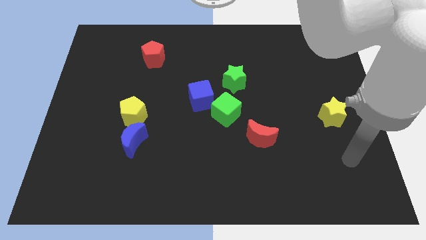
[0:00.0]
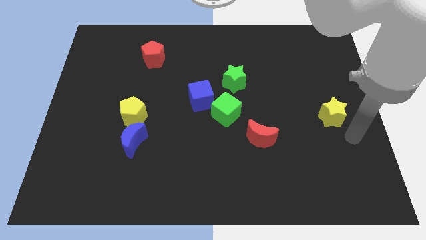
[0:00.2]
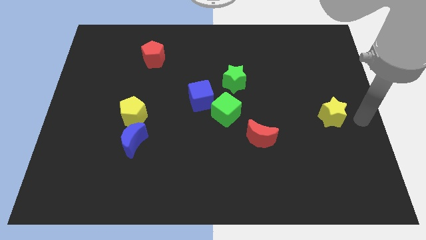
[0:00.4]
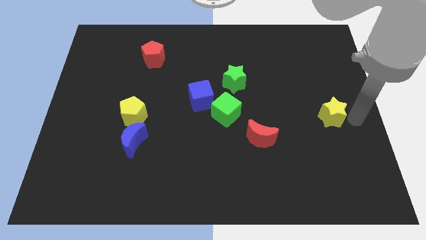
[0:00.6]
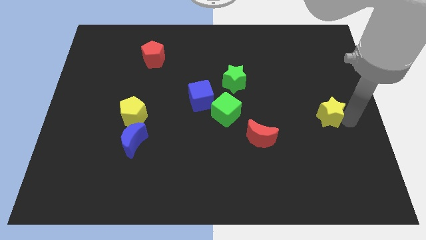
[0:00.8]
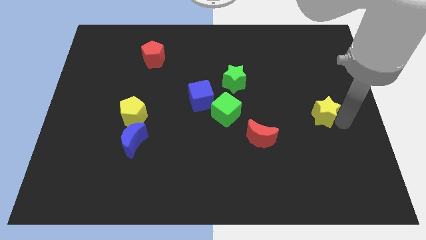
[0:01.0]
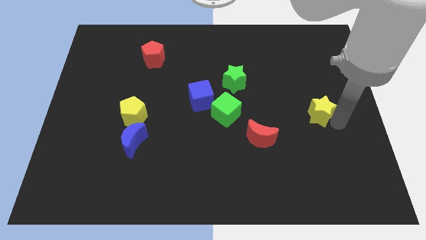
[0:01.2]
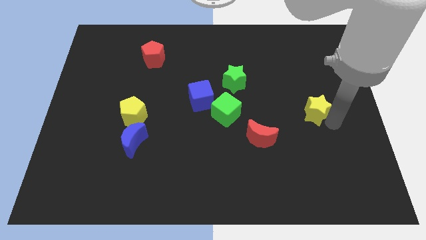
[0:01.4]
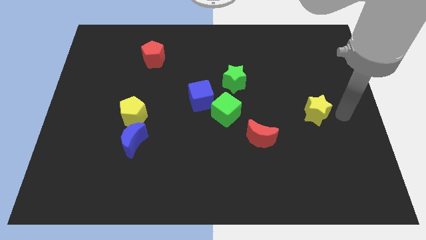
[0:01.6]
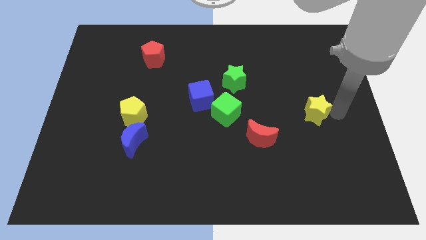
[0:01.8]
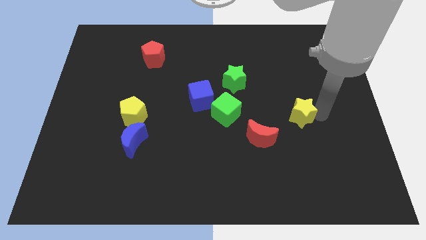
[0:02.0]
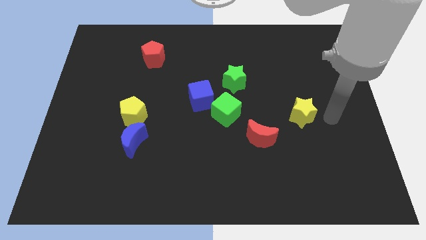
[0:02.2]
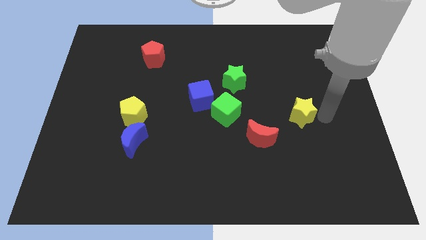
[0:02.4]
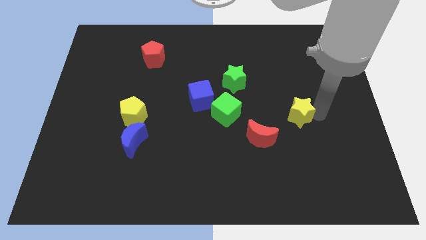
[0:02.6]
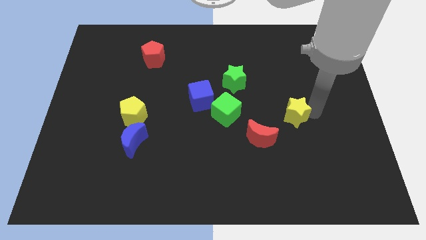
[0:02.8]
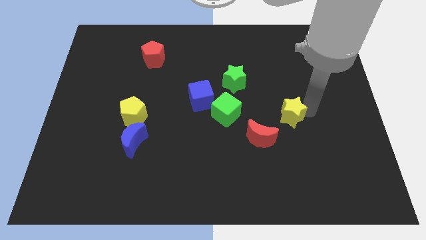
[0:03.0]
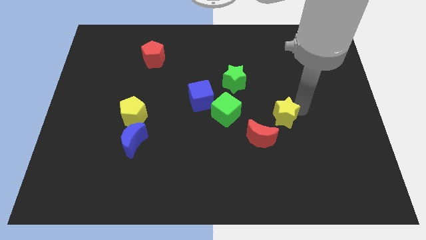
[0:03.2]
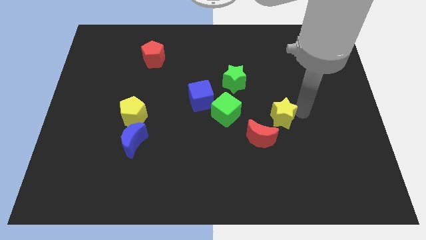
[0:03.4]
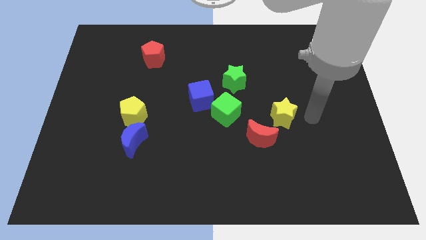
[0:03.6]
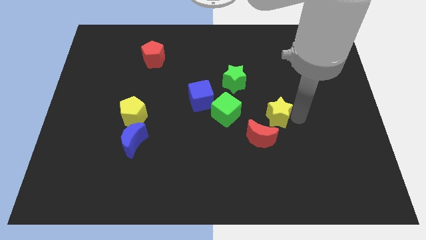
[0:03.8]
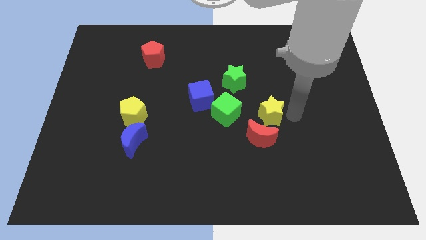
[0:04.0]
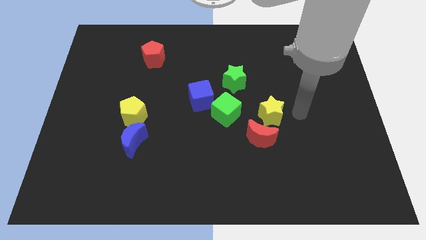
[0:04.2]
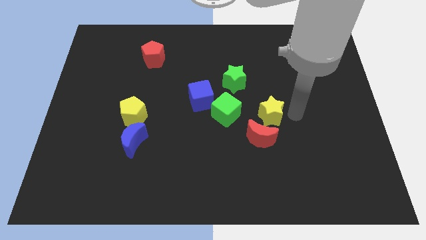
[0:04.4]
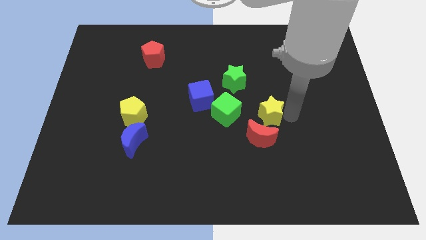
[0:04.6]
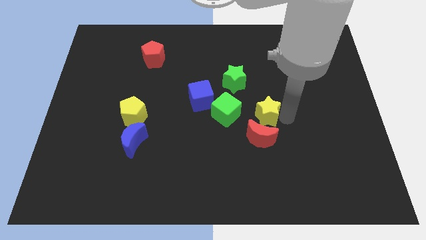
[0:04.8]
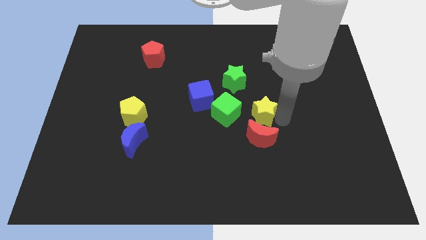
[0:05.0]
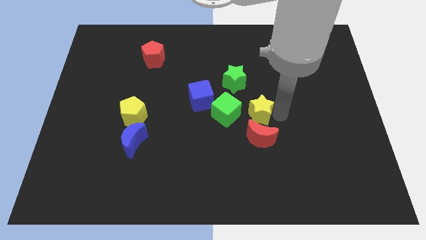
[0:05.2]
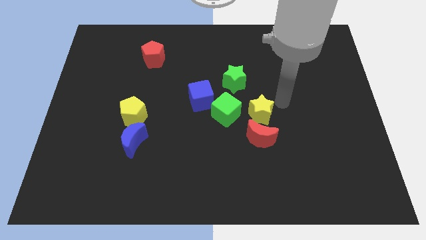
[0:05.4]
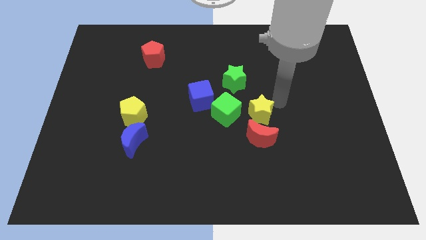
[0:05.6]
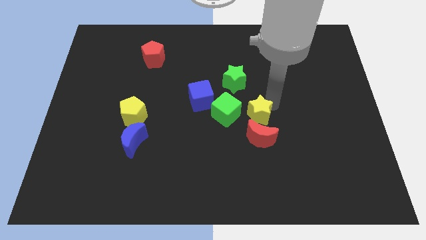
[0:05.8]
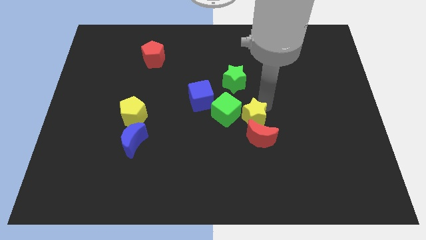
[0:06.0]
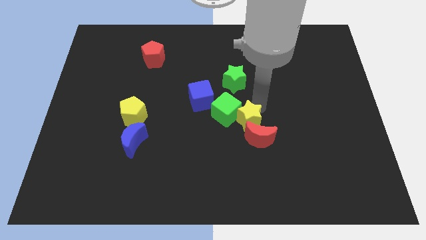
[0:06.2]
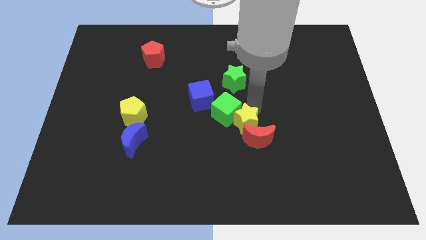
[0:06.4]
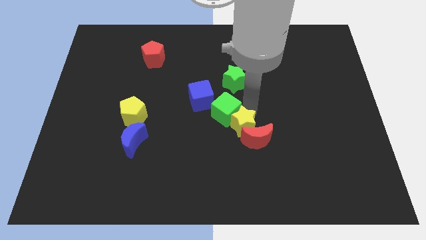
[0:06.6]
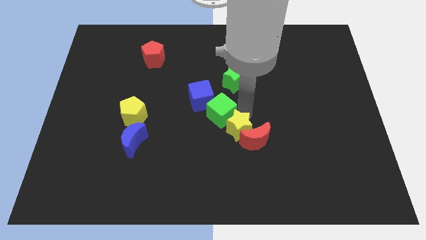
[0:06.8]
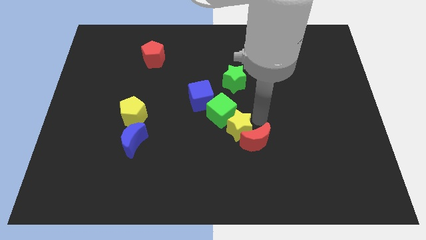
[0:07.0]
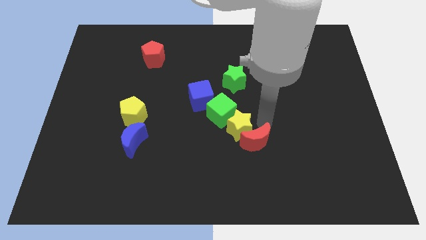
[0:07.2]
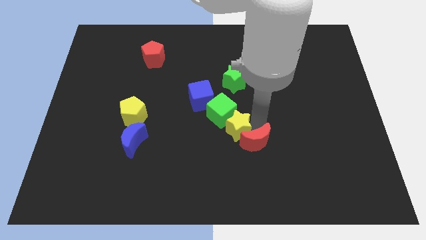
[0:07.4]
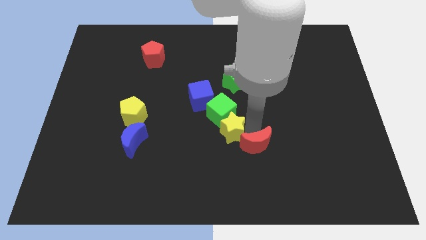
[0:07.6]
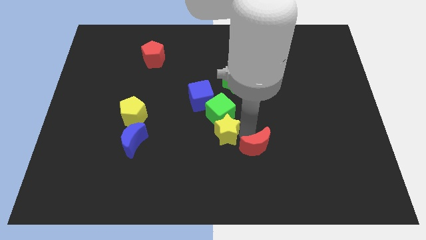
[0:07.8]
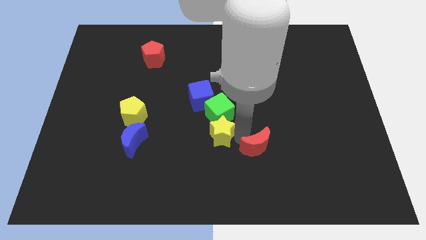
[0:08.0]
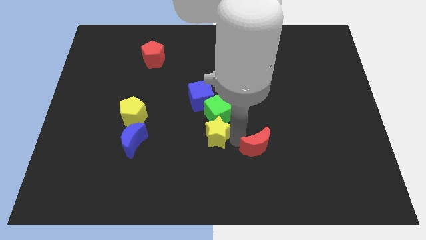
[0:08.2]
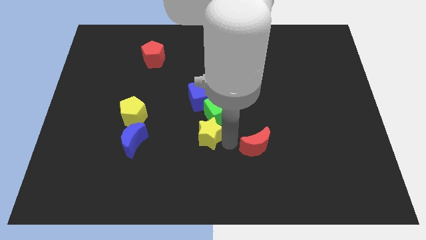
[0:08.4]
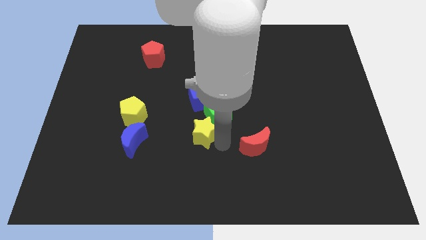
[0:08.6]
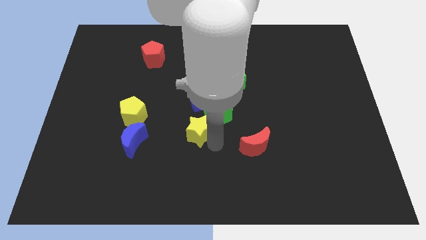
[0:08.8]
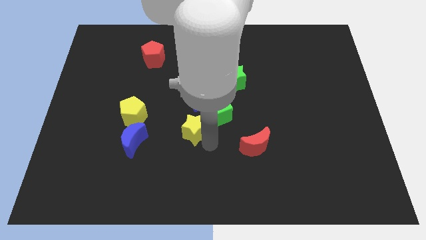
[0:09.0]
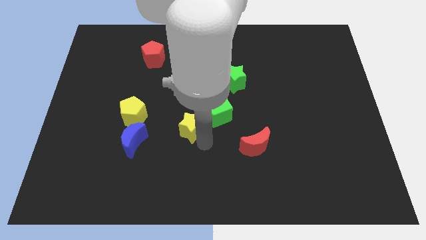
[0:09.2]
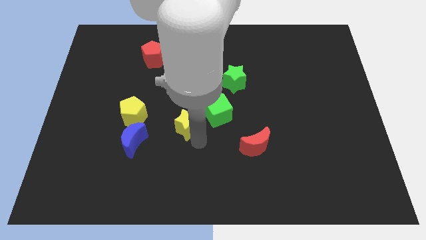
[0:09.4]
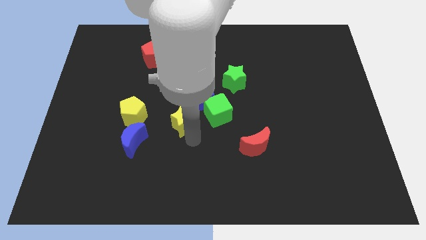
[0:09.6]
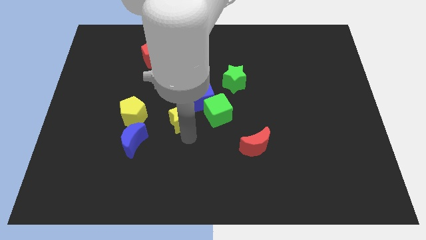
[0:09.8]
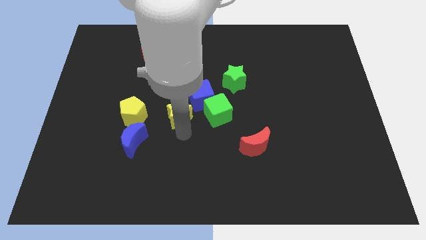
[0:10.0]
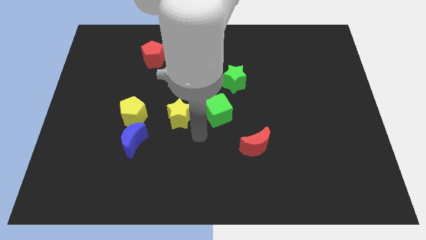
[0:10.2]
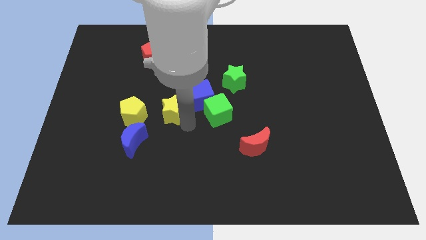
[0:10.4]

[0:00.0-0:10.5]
slide the yellow star left of the blue cube

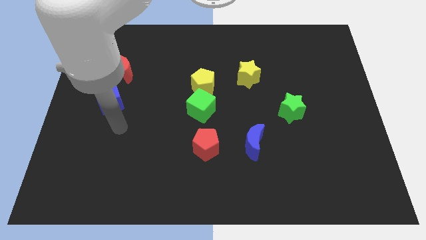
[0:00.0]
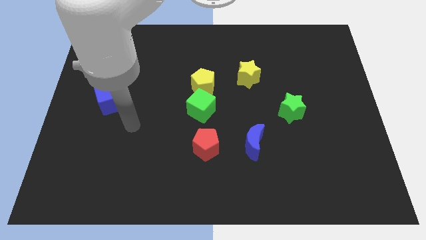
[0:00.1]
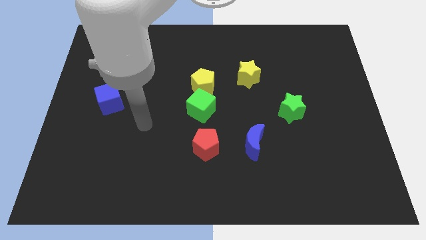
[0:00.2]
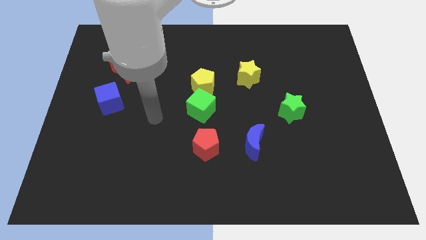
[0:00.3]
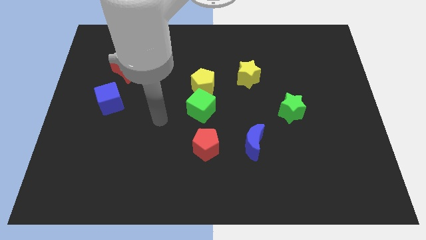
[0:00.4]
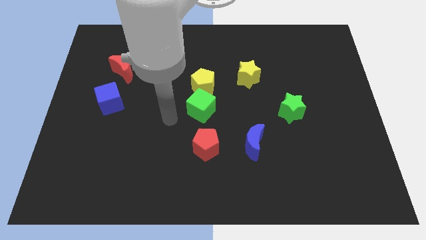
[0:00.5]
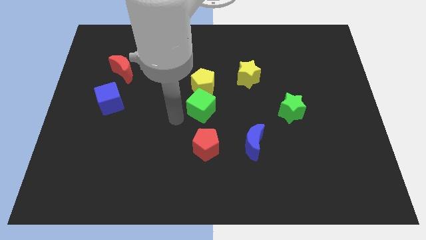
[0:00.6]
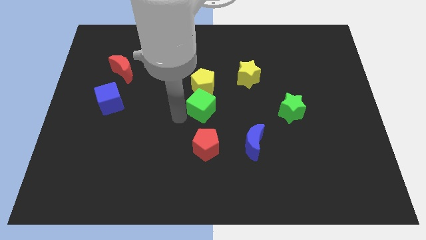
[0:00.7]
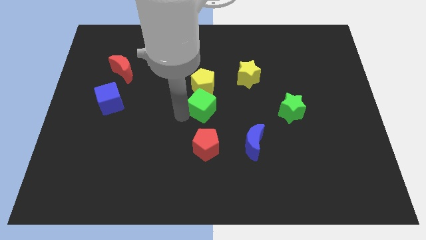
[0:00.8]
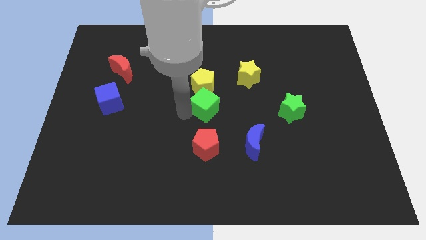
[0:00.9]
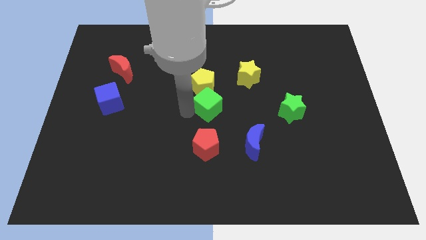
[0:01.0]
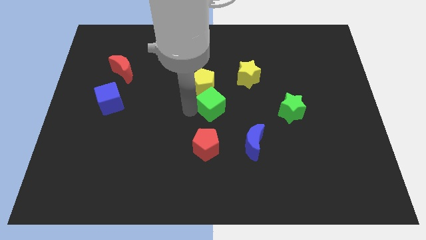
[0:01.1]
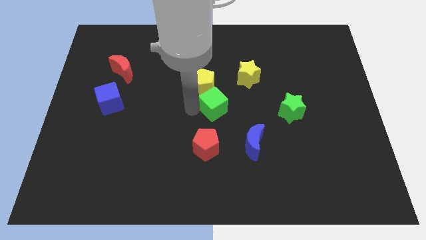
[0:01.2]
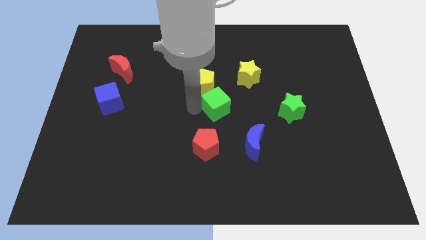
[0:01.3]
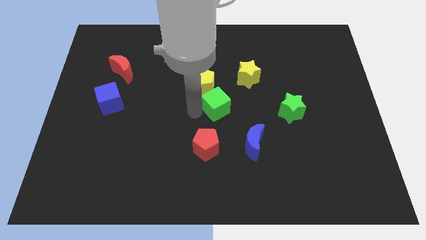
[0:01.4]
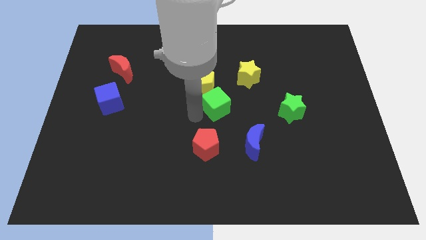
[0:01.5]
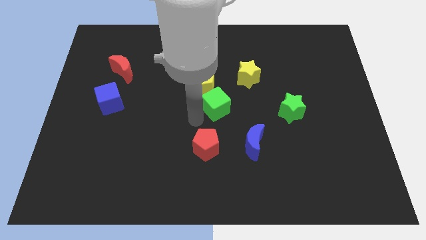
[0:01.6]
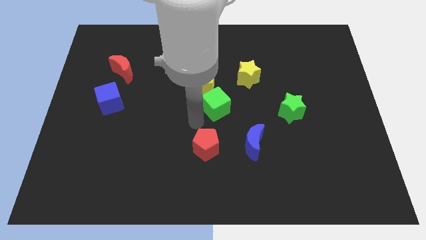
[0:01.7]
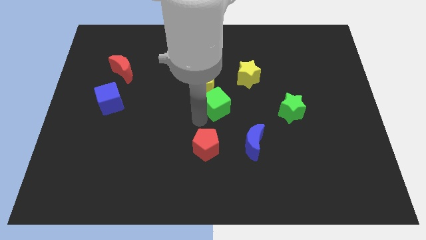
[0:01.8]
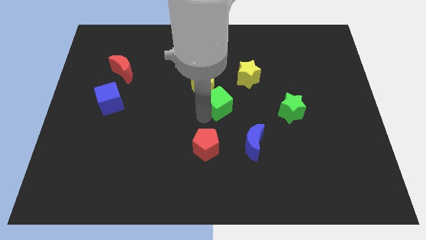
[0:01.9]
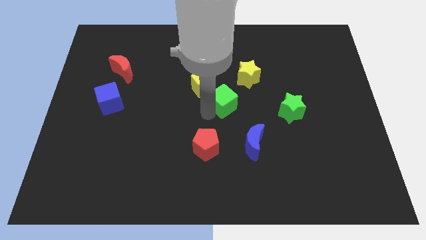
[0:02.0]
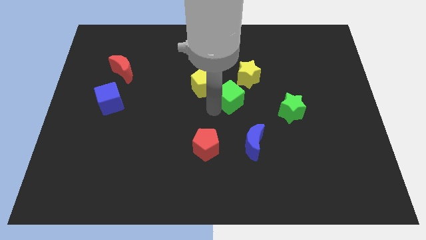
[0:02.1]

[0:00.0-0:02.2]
slide the green cube just right of the yellow pentagon
